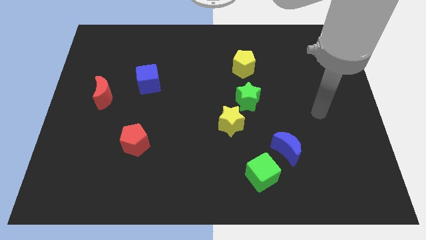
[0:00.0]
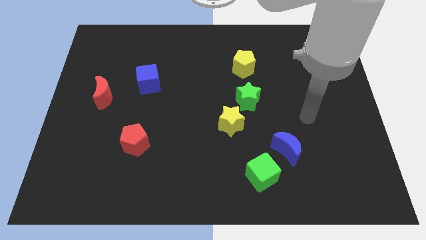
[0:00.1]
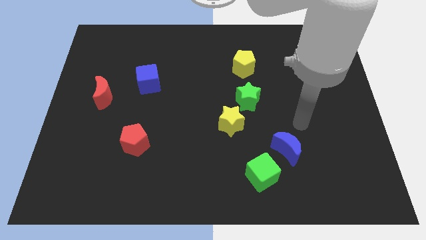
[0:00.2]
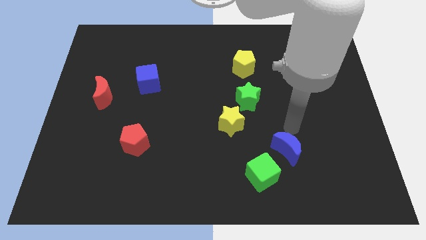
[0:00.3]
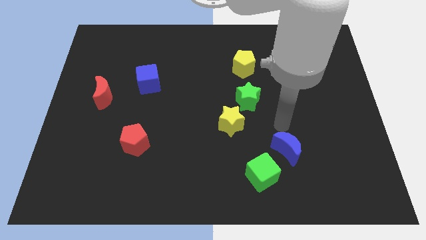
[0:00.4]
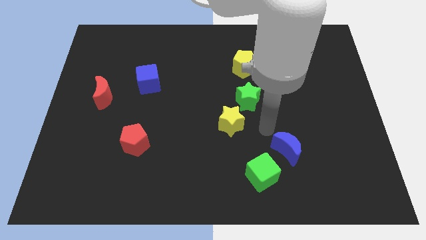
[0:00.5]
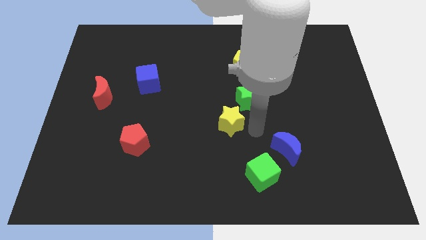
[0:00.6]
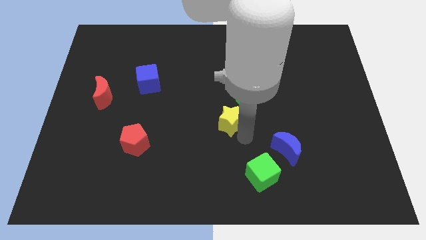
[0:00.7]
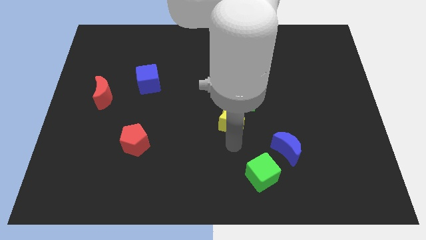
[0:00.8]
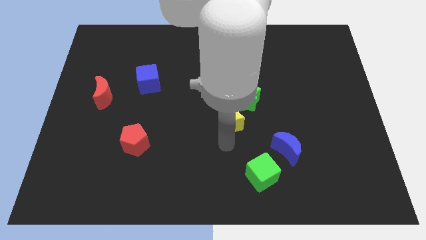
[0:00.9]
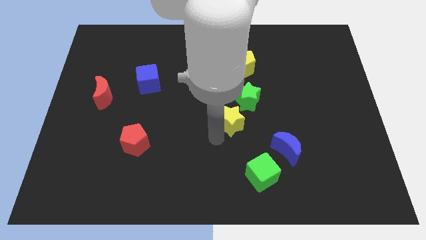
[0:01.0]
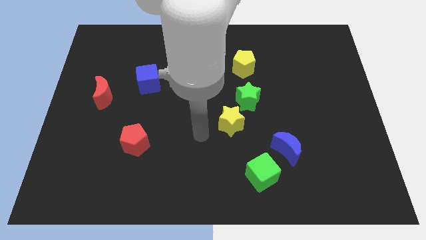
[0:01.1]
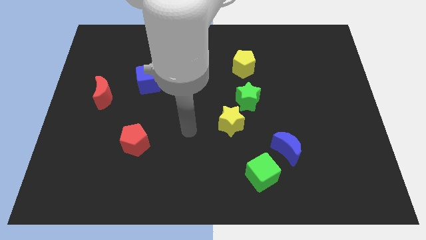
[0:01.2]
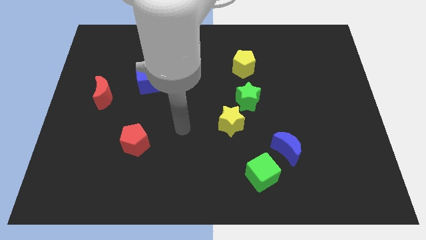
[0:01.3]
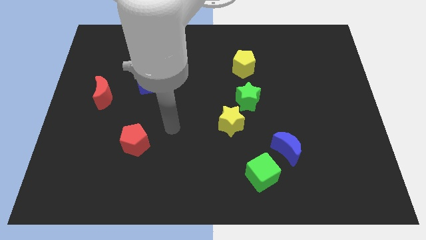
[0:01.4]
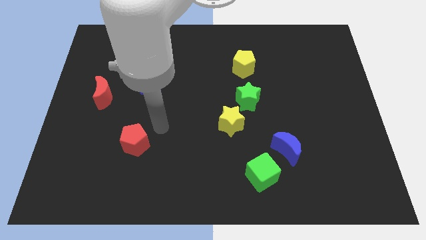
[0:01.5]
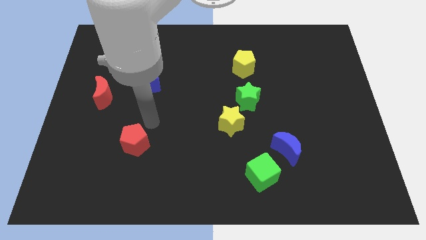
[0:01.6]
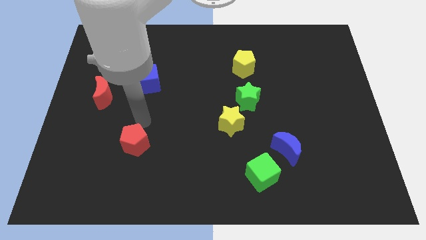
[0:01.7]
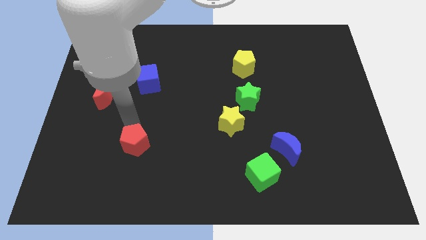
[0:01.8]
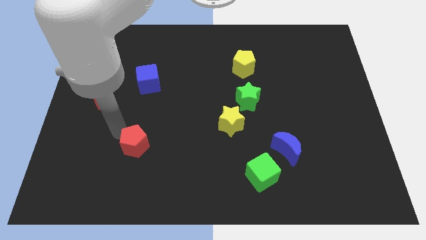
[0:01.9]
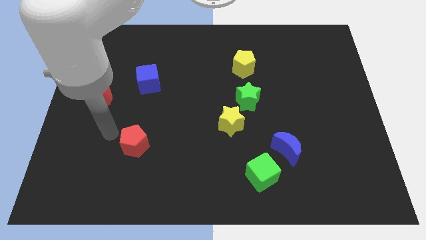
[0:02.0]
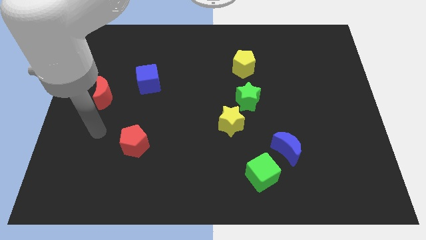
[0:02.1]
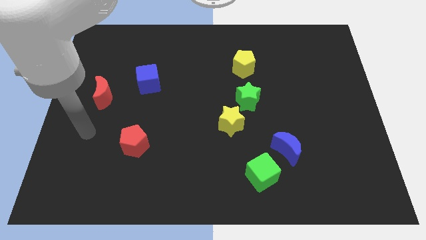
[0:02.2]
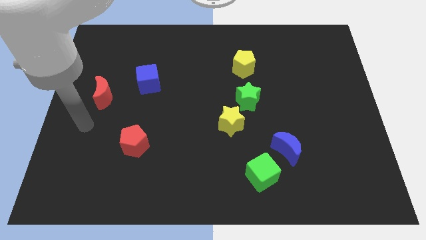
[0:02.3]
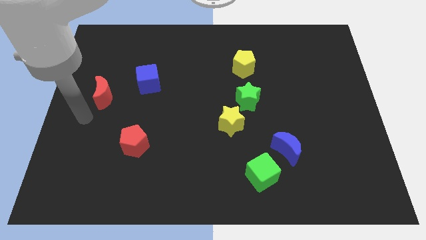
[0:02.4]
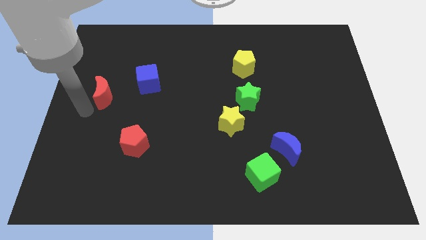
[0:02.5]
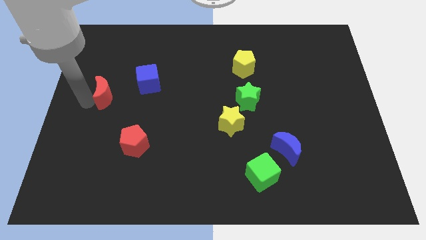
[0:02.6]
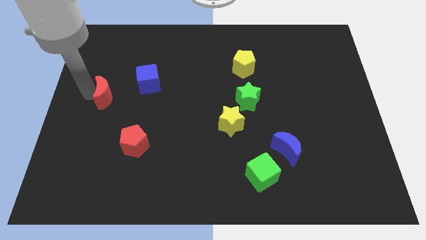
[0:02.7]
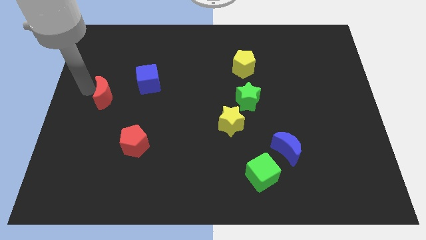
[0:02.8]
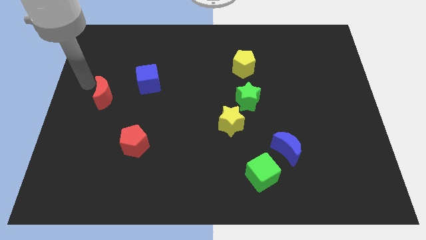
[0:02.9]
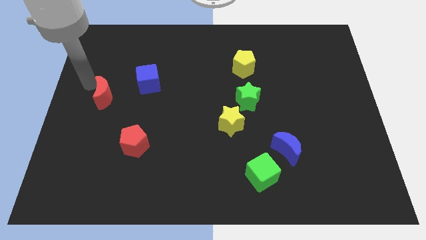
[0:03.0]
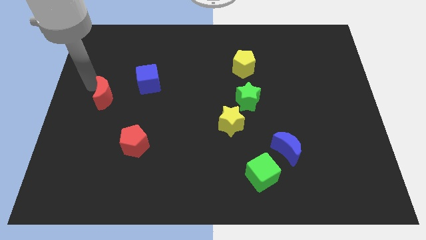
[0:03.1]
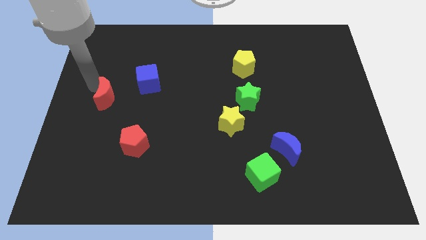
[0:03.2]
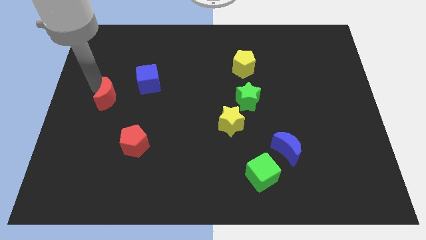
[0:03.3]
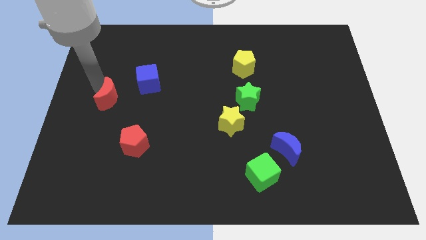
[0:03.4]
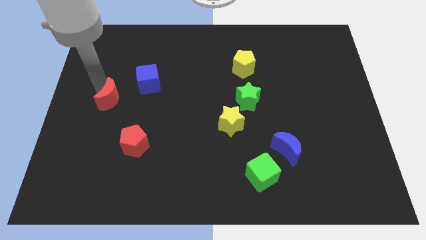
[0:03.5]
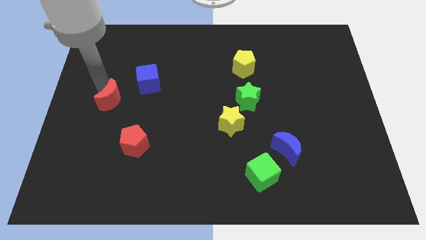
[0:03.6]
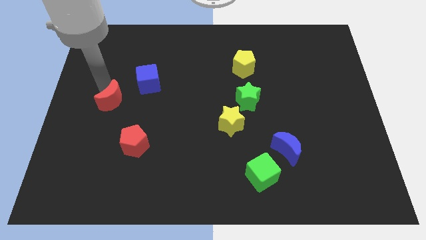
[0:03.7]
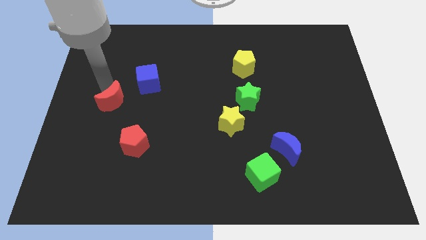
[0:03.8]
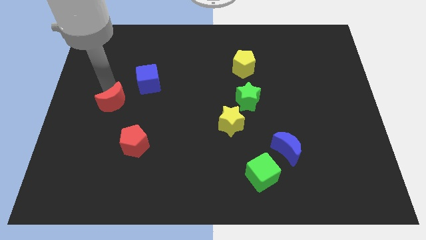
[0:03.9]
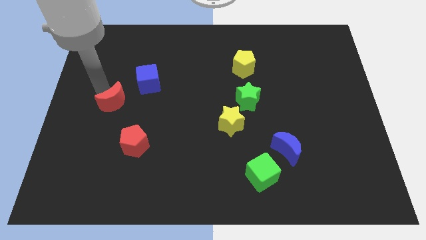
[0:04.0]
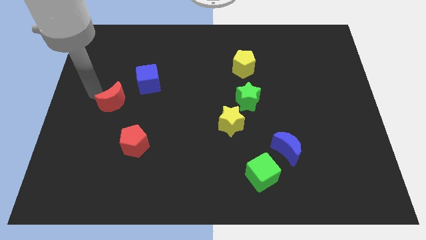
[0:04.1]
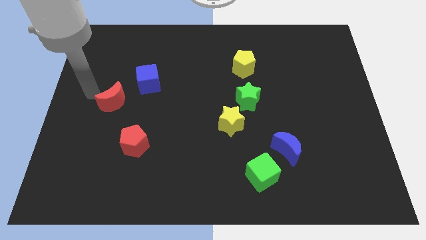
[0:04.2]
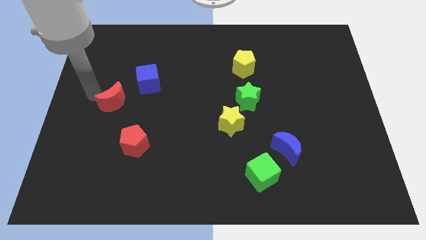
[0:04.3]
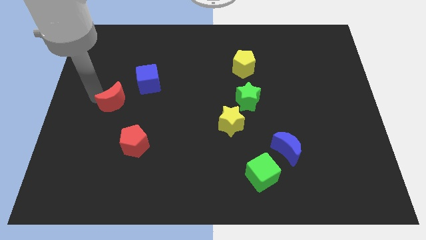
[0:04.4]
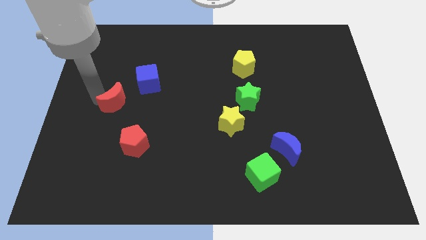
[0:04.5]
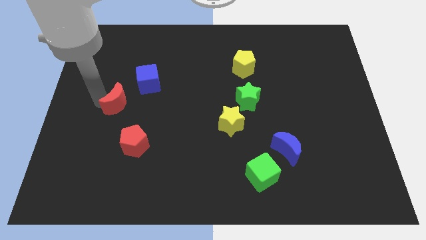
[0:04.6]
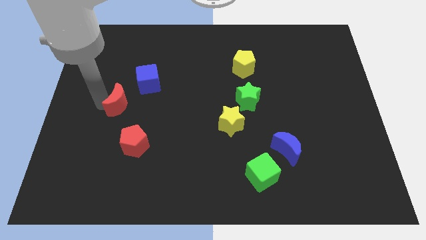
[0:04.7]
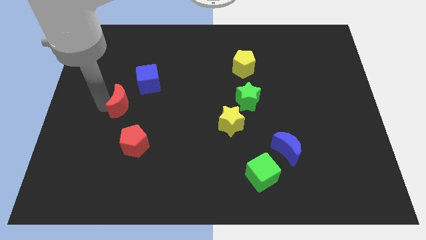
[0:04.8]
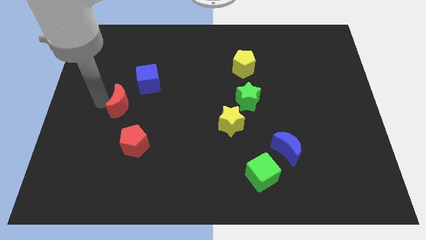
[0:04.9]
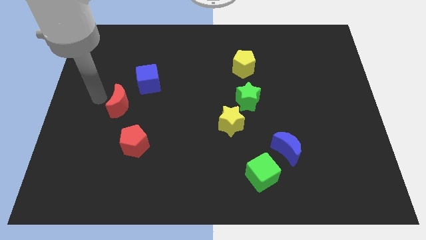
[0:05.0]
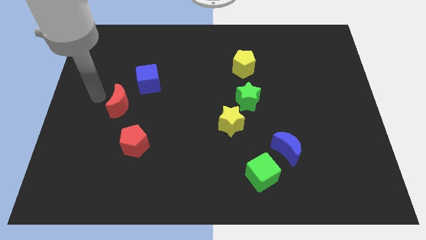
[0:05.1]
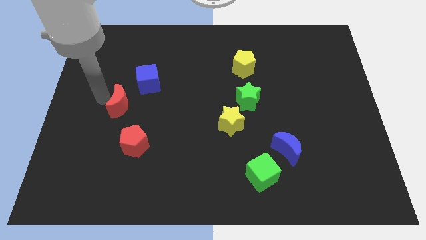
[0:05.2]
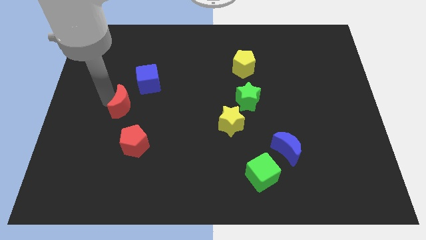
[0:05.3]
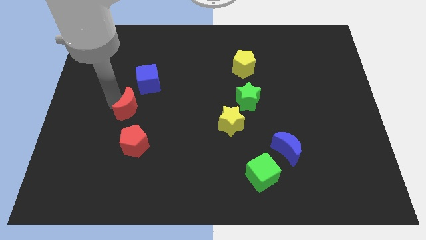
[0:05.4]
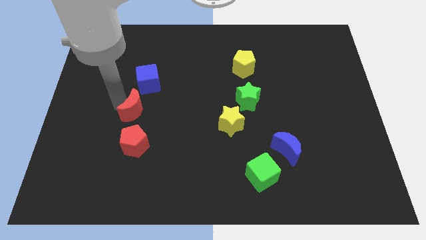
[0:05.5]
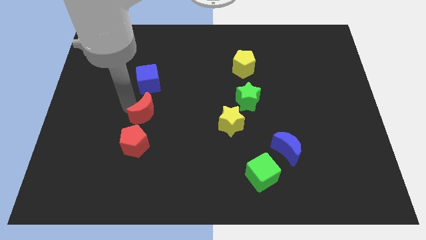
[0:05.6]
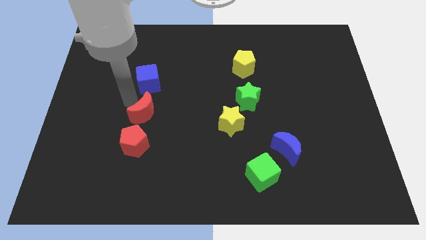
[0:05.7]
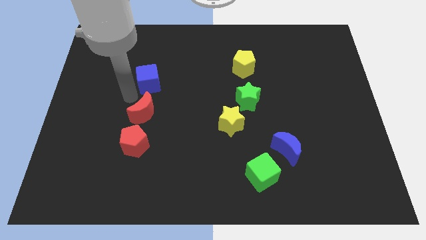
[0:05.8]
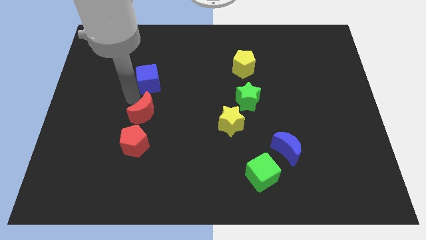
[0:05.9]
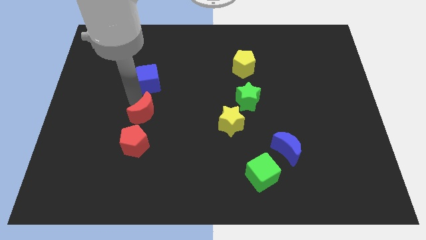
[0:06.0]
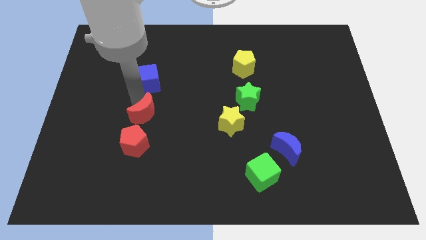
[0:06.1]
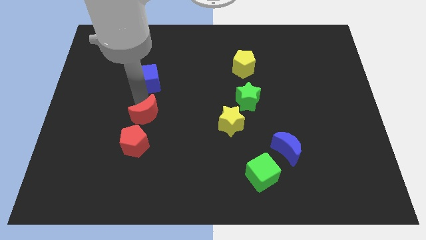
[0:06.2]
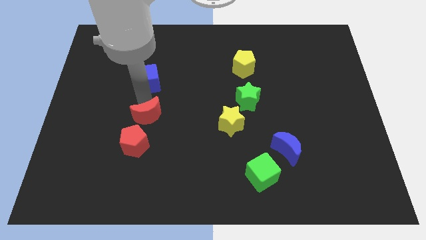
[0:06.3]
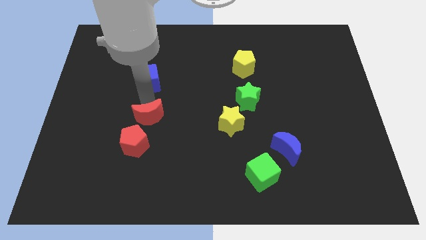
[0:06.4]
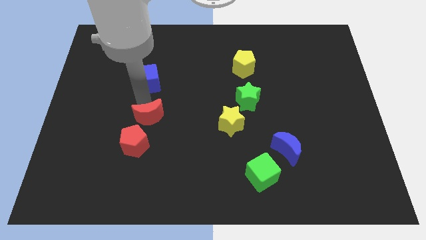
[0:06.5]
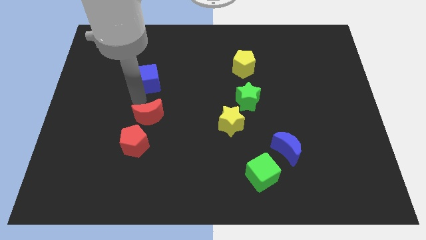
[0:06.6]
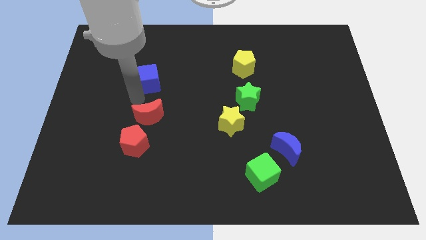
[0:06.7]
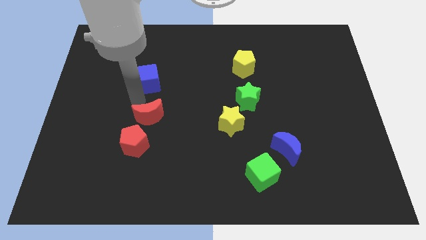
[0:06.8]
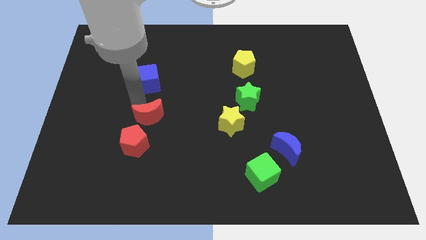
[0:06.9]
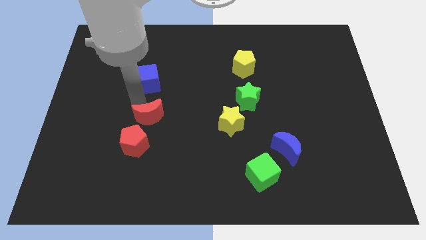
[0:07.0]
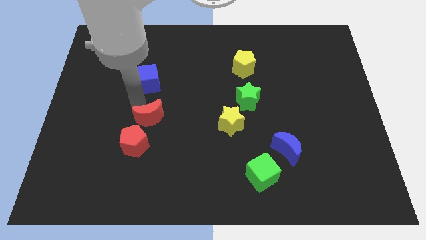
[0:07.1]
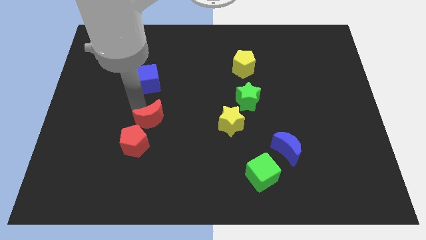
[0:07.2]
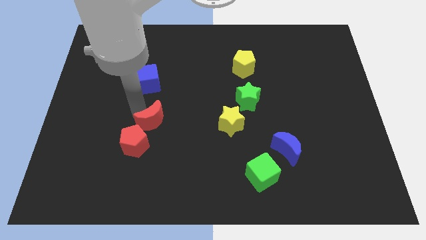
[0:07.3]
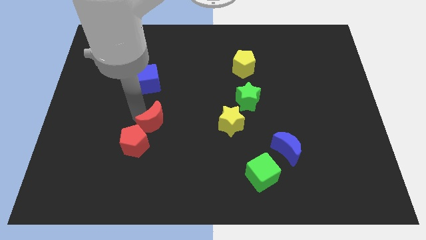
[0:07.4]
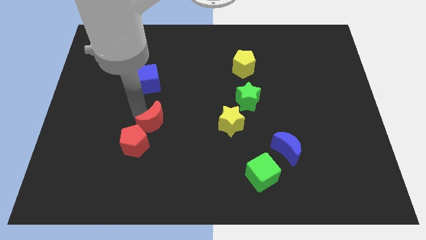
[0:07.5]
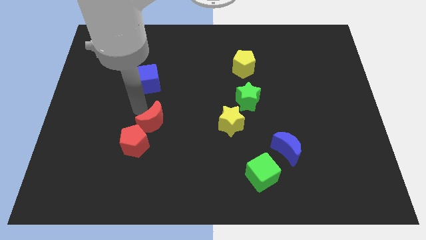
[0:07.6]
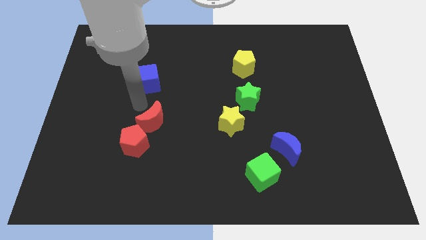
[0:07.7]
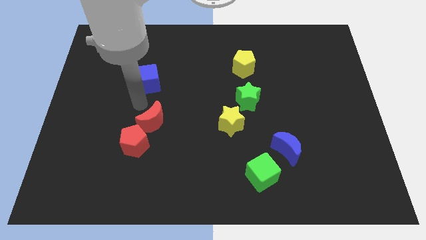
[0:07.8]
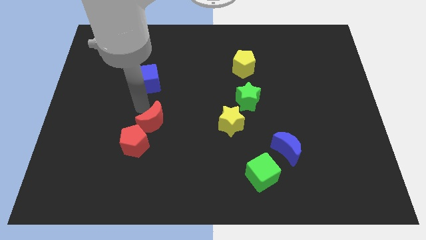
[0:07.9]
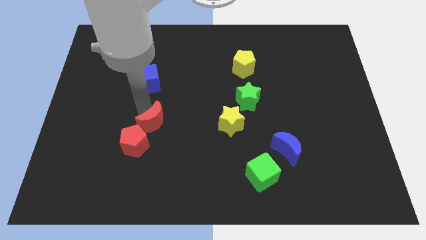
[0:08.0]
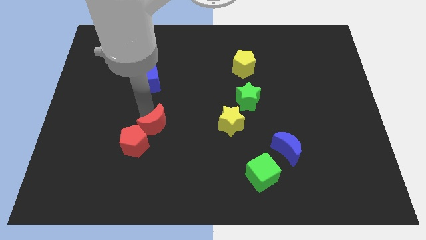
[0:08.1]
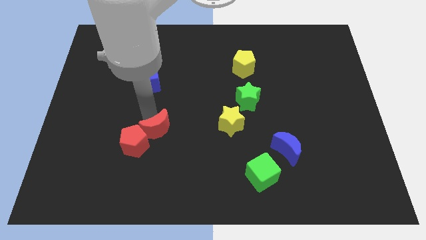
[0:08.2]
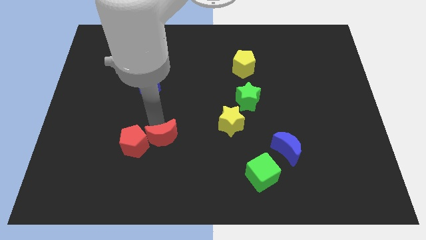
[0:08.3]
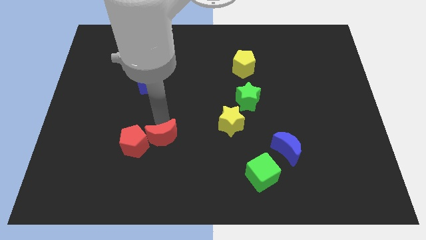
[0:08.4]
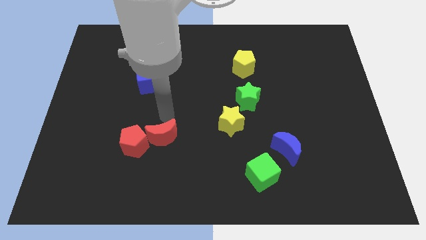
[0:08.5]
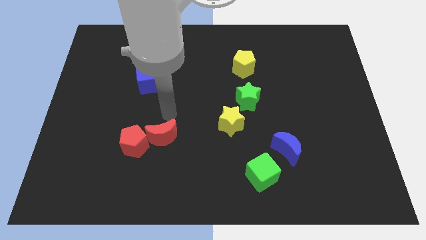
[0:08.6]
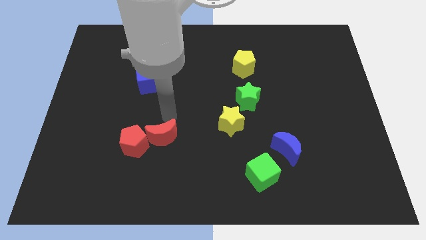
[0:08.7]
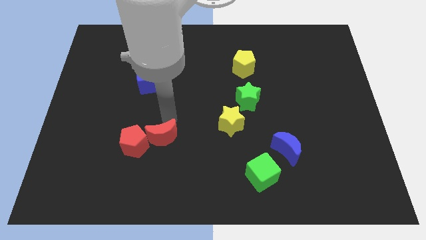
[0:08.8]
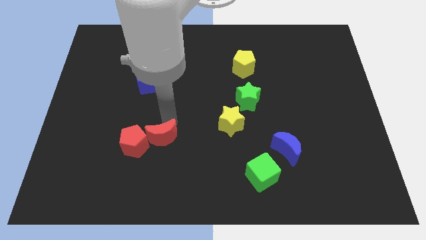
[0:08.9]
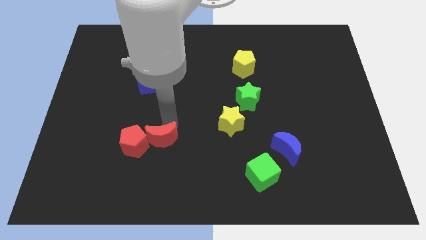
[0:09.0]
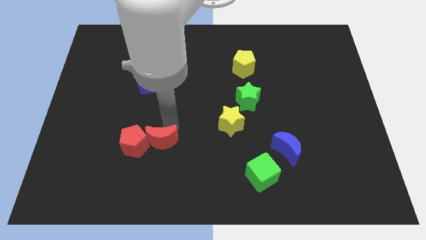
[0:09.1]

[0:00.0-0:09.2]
move the red moon diagonally down and to the right of the red pentagon
